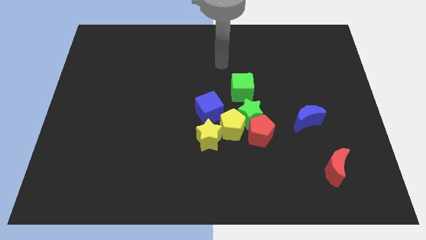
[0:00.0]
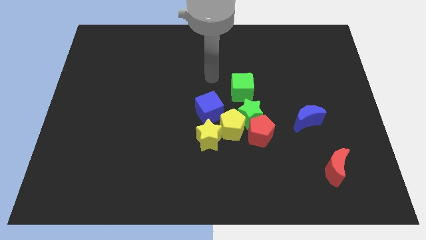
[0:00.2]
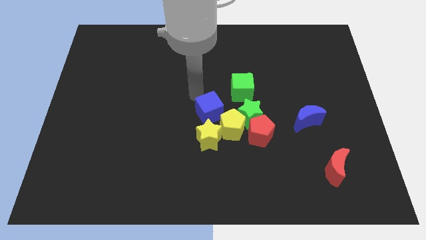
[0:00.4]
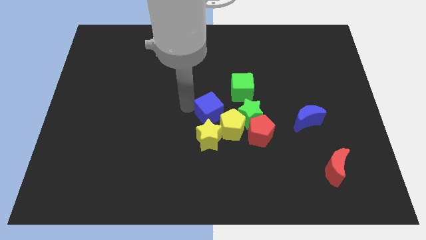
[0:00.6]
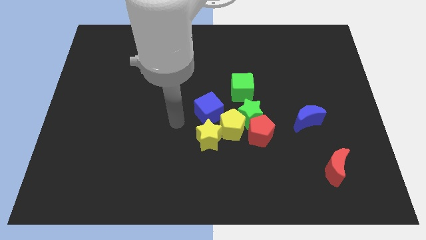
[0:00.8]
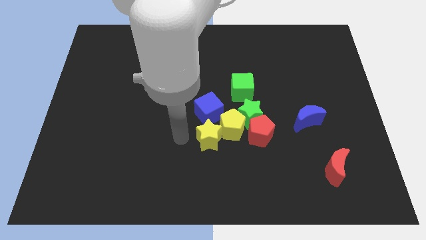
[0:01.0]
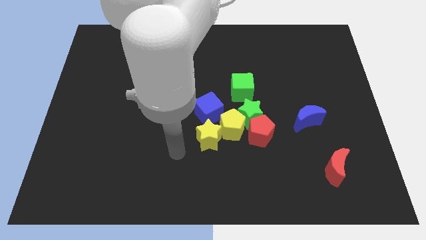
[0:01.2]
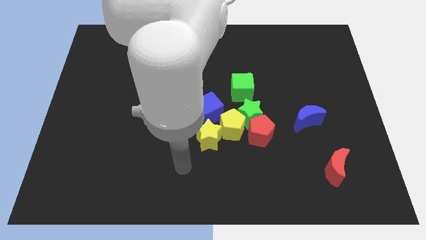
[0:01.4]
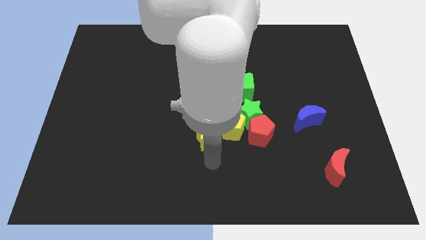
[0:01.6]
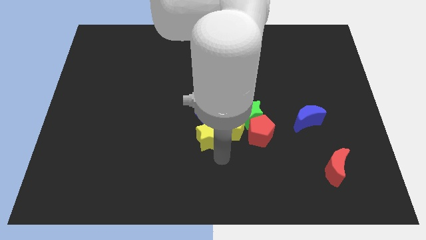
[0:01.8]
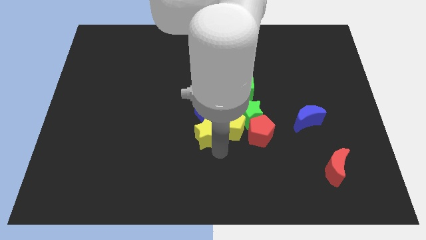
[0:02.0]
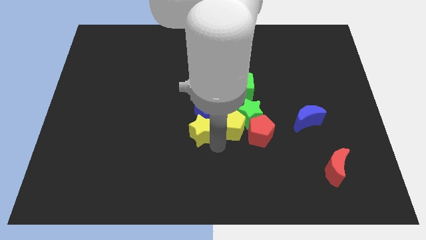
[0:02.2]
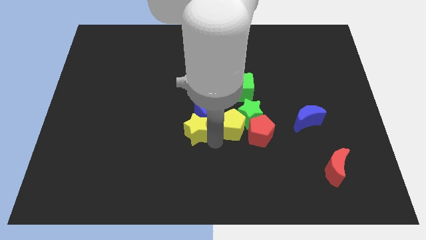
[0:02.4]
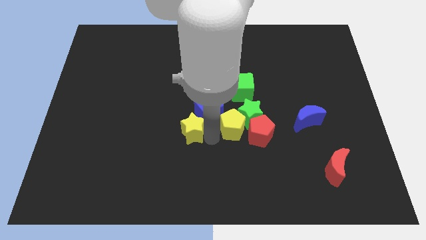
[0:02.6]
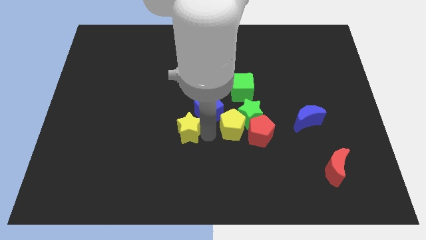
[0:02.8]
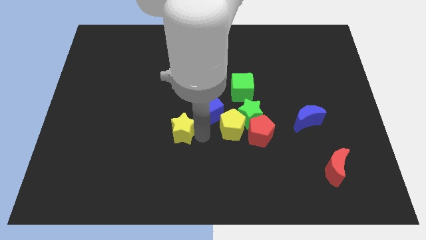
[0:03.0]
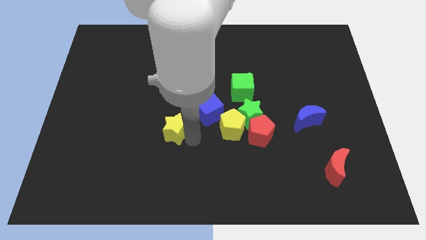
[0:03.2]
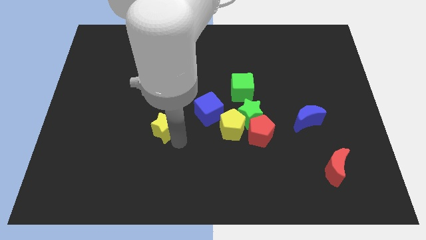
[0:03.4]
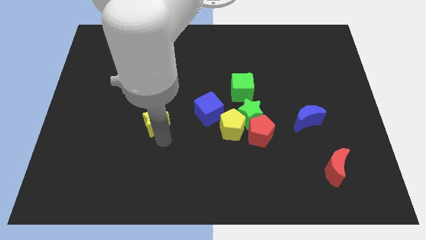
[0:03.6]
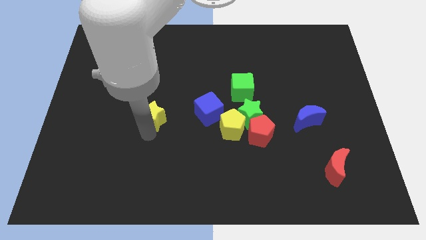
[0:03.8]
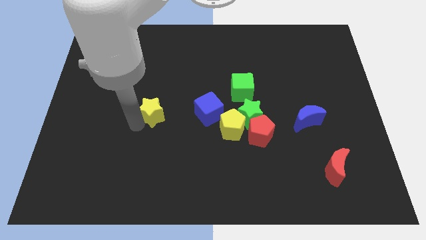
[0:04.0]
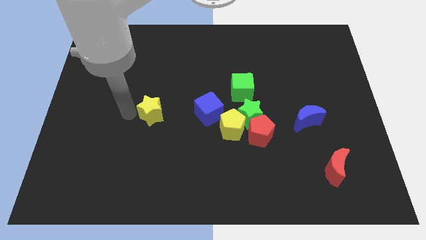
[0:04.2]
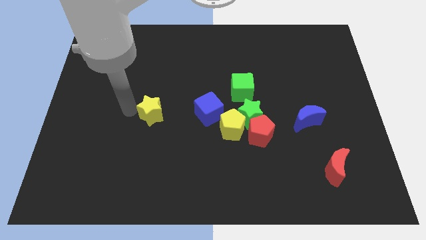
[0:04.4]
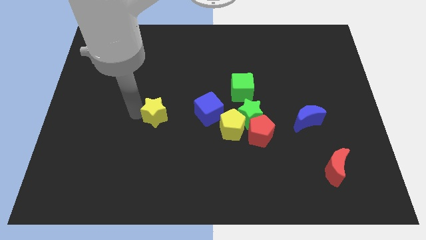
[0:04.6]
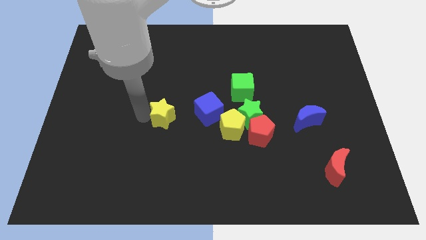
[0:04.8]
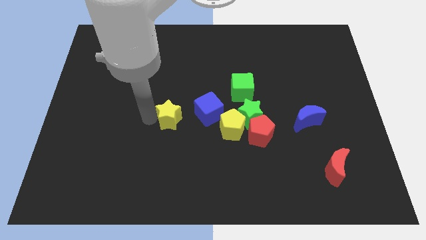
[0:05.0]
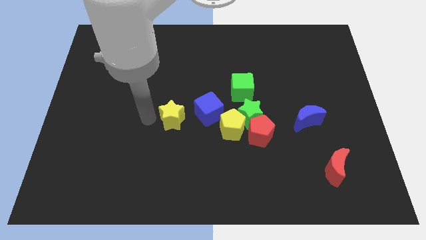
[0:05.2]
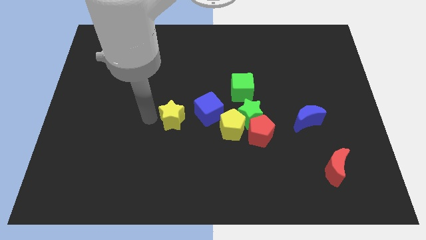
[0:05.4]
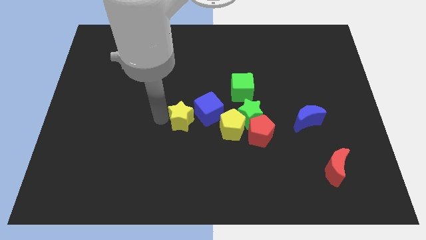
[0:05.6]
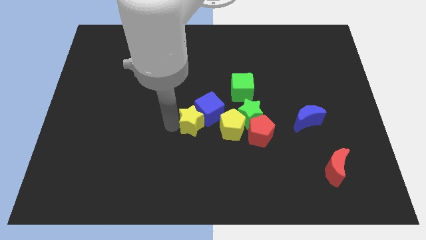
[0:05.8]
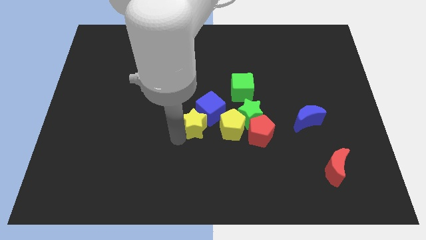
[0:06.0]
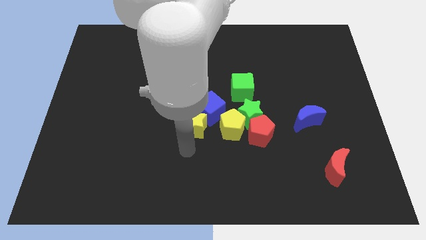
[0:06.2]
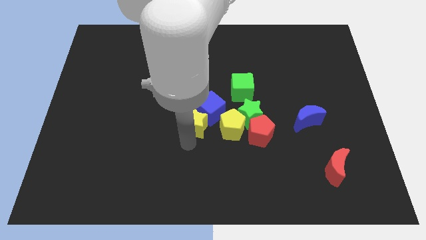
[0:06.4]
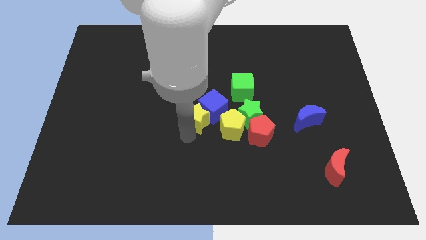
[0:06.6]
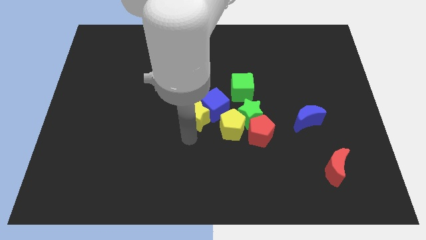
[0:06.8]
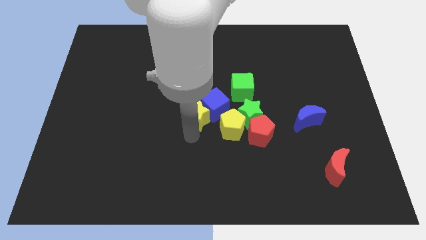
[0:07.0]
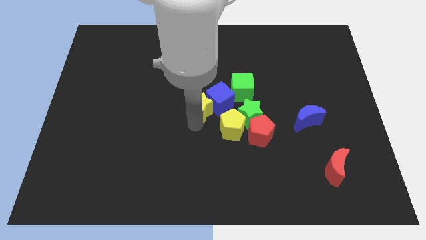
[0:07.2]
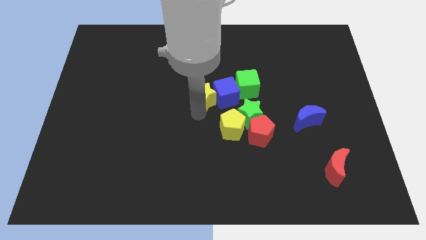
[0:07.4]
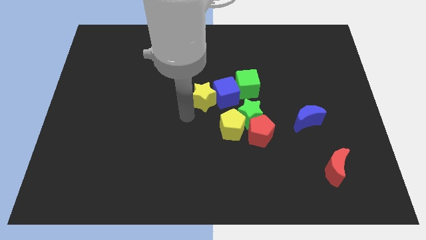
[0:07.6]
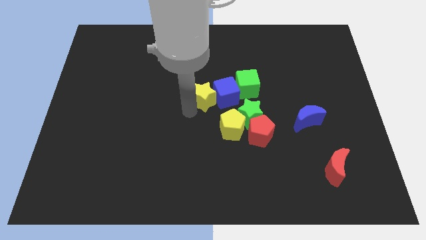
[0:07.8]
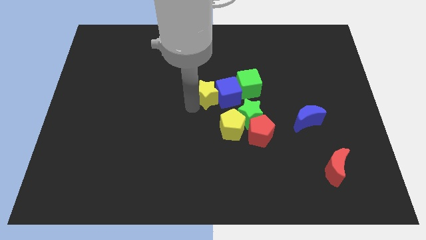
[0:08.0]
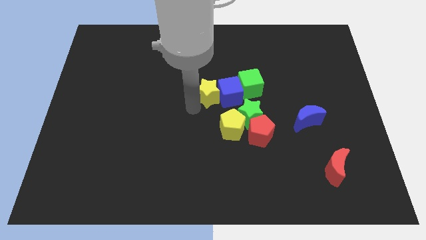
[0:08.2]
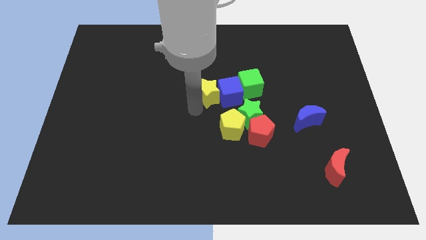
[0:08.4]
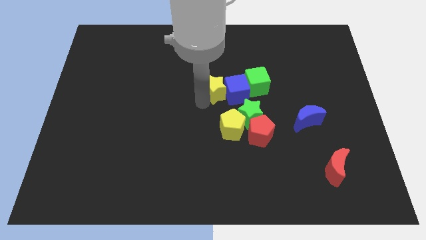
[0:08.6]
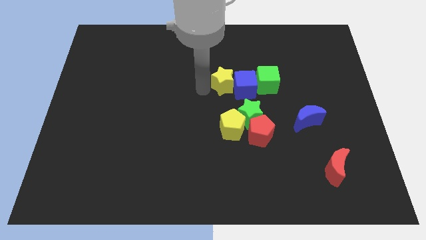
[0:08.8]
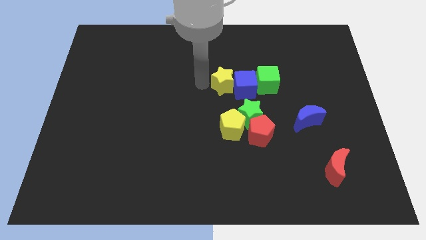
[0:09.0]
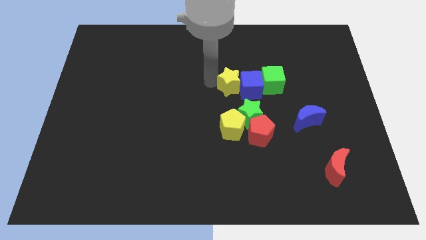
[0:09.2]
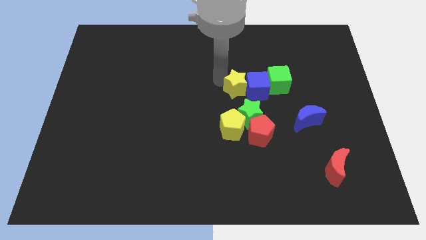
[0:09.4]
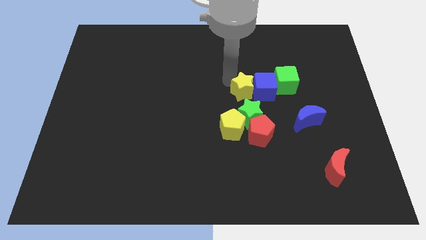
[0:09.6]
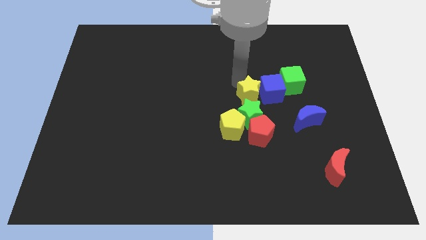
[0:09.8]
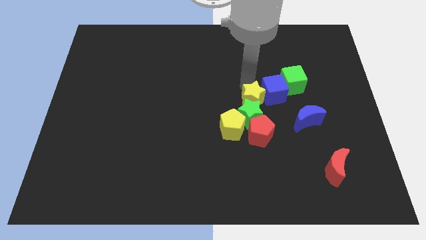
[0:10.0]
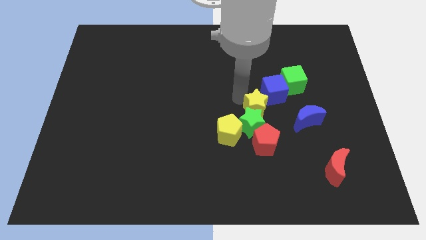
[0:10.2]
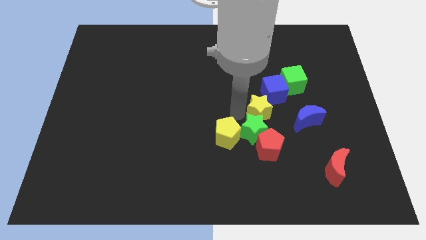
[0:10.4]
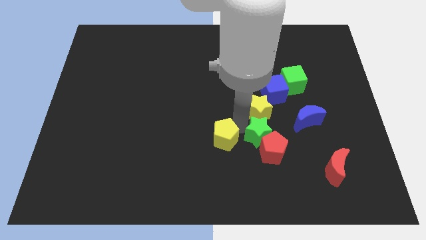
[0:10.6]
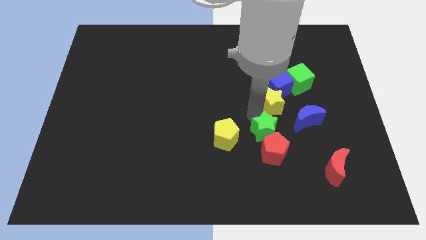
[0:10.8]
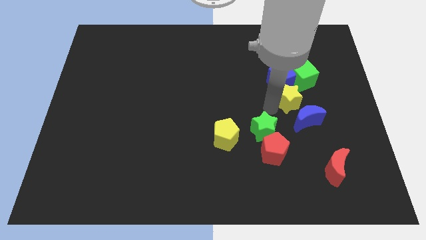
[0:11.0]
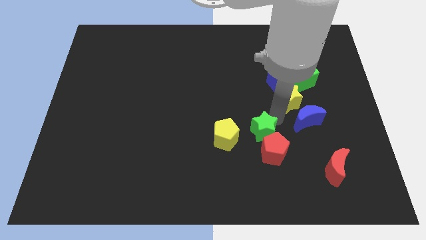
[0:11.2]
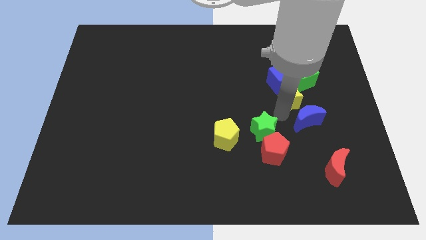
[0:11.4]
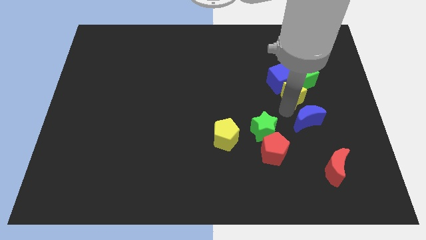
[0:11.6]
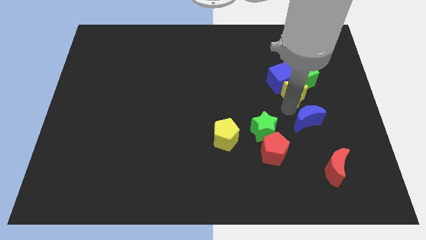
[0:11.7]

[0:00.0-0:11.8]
put the yellow star close to the green cube

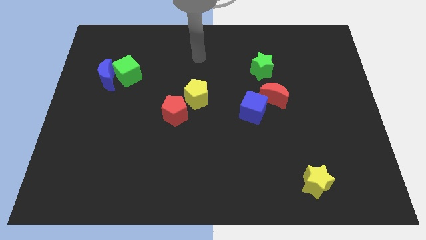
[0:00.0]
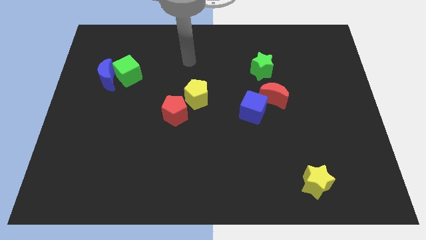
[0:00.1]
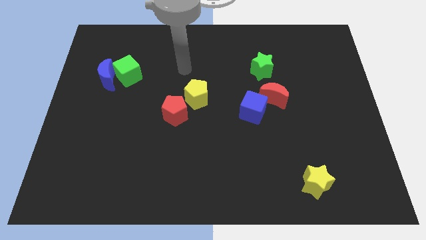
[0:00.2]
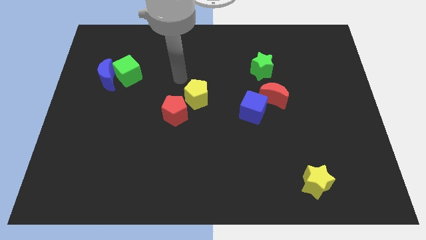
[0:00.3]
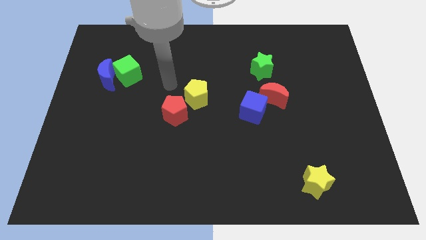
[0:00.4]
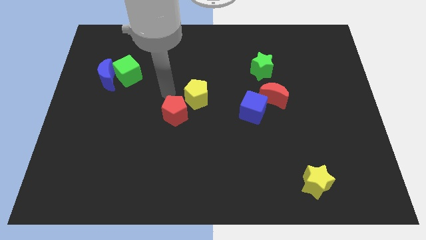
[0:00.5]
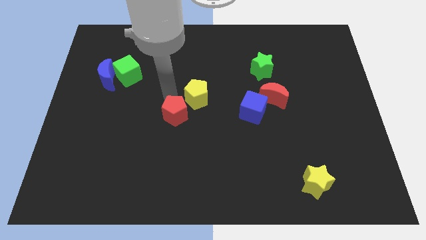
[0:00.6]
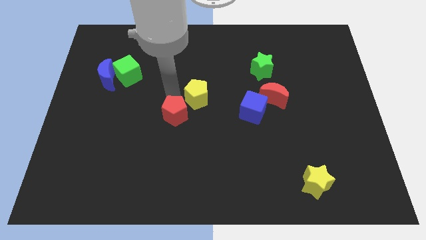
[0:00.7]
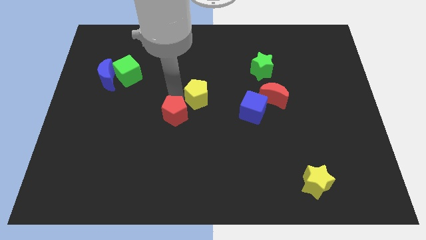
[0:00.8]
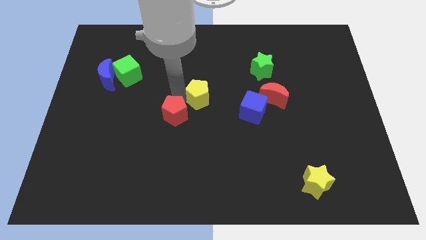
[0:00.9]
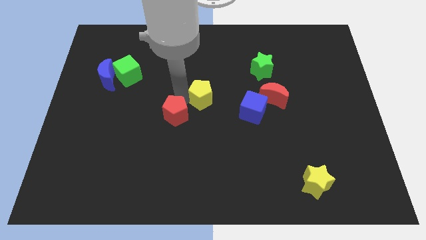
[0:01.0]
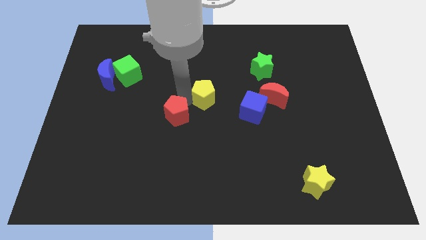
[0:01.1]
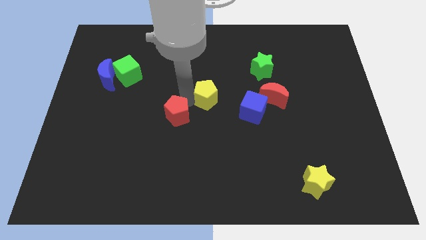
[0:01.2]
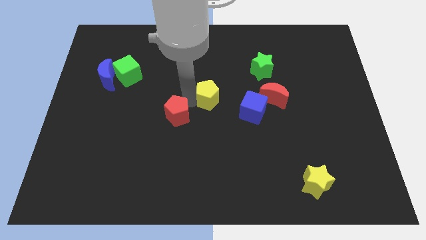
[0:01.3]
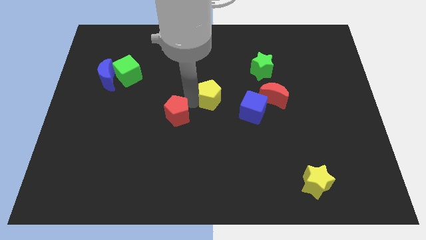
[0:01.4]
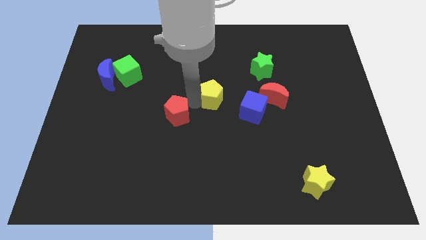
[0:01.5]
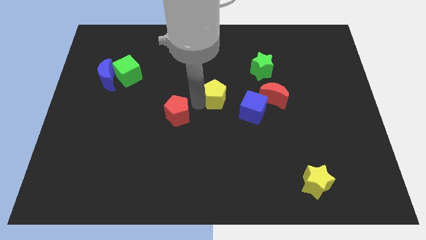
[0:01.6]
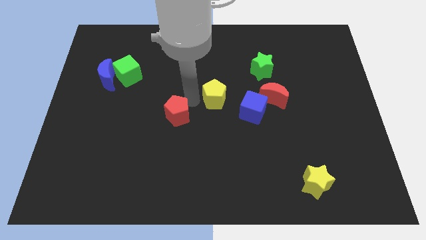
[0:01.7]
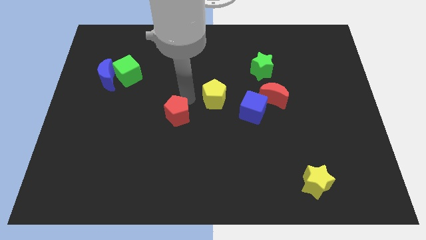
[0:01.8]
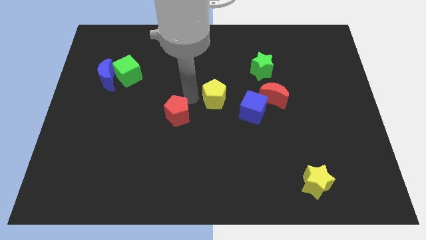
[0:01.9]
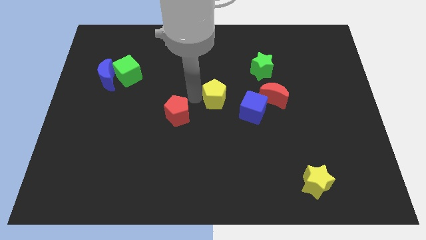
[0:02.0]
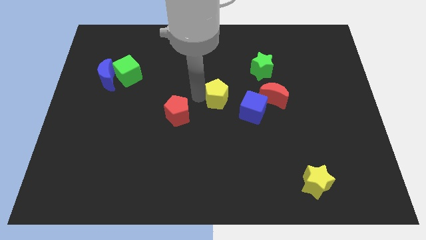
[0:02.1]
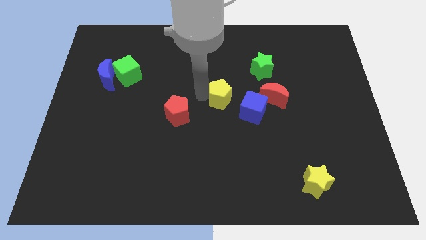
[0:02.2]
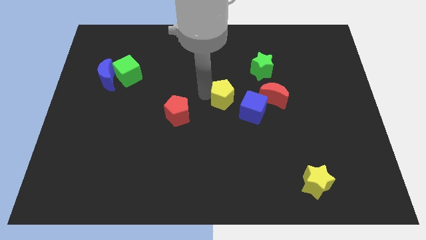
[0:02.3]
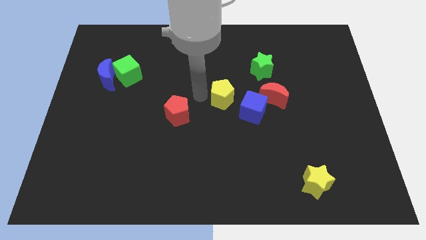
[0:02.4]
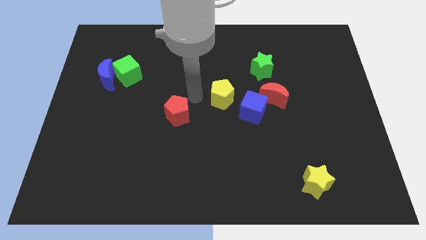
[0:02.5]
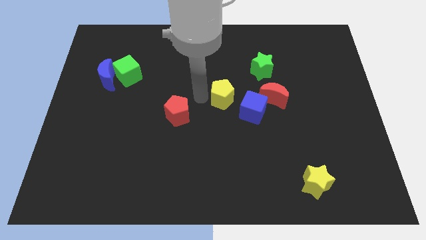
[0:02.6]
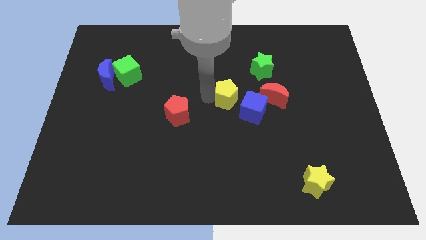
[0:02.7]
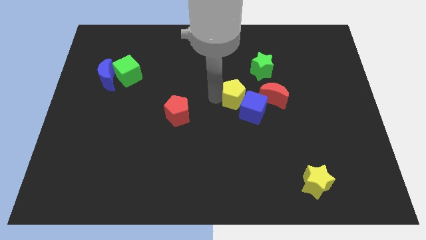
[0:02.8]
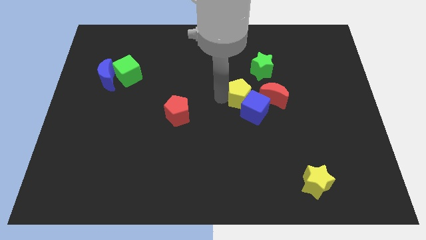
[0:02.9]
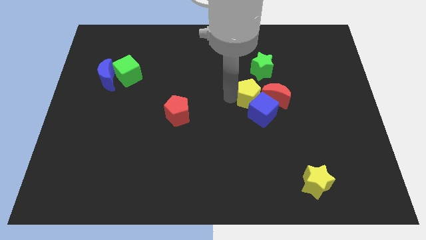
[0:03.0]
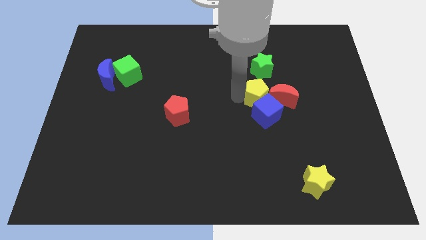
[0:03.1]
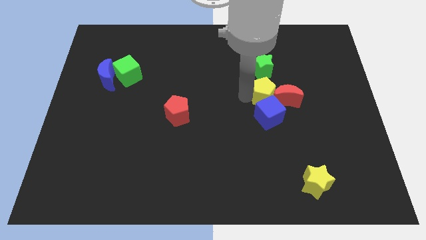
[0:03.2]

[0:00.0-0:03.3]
push the yellow pentagon close to the red moon
